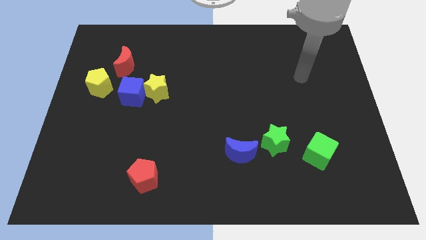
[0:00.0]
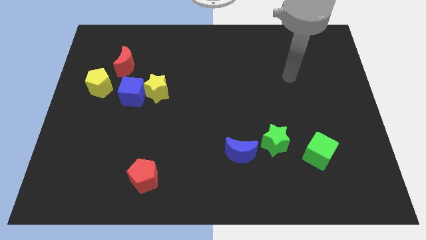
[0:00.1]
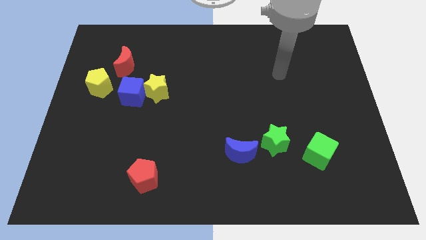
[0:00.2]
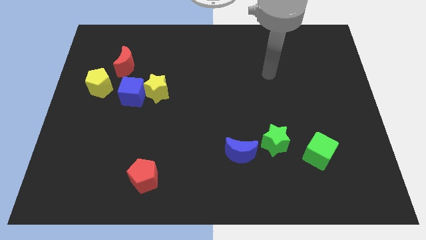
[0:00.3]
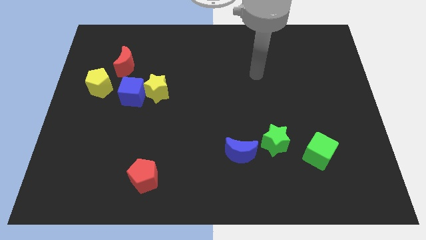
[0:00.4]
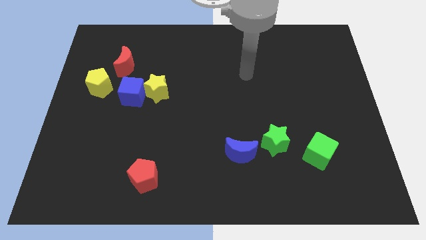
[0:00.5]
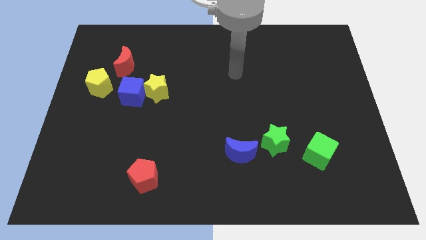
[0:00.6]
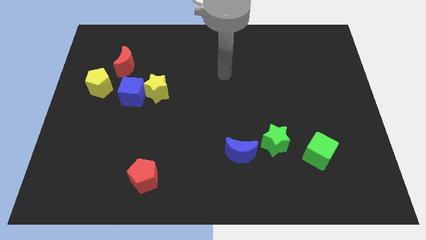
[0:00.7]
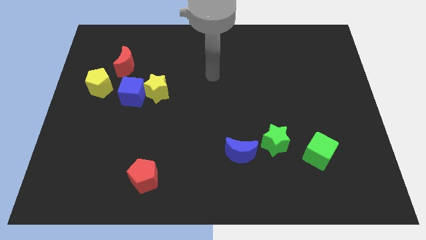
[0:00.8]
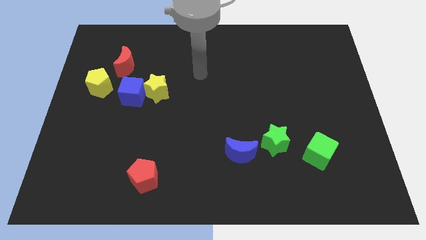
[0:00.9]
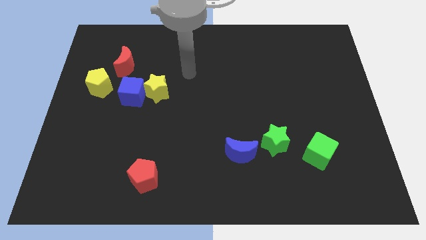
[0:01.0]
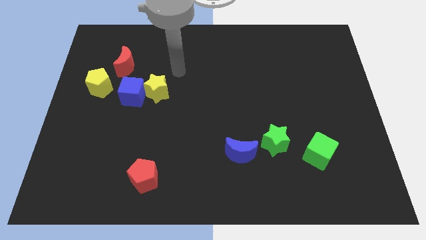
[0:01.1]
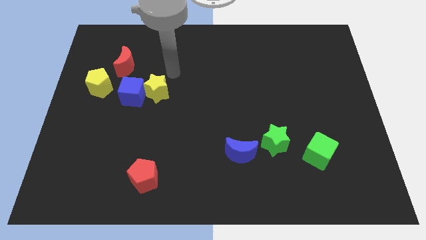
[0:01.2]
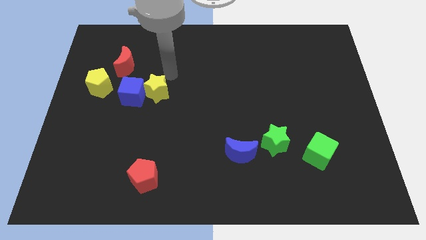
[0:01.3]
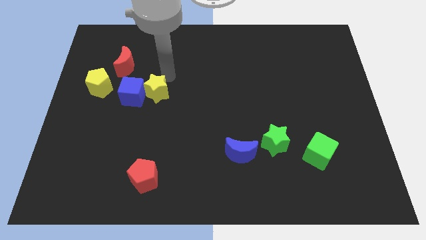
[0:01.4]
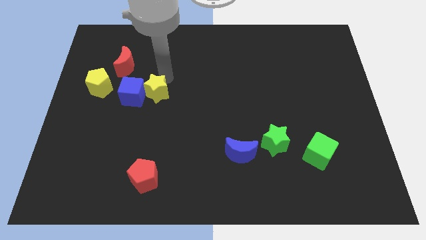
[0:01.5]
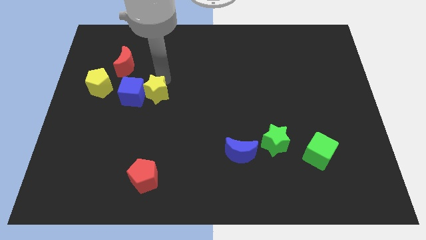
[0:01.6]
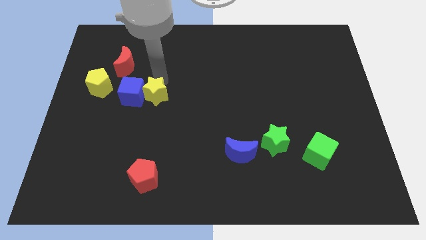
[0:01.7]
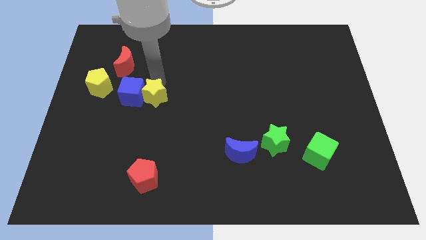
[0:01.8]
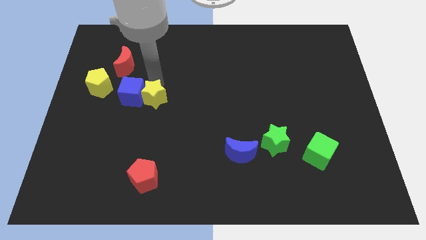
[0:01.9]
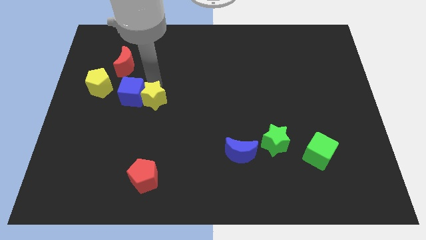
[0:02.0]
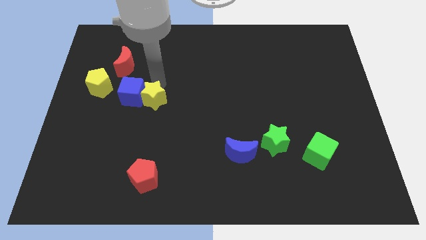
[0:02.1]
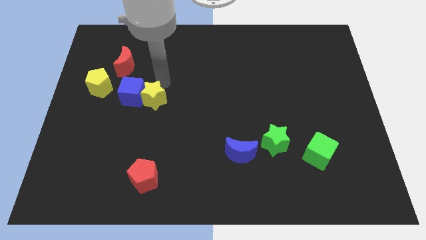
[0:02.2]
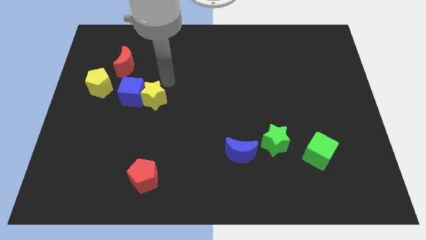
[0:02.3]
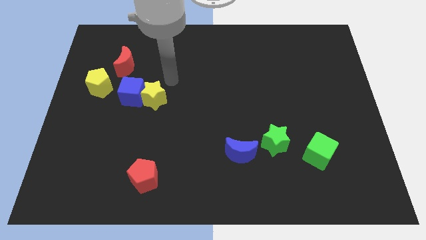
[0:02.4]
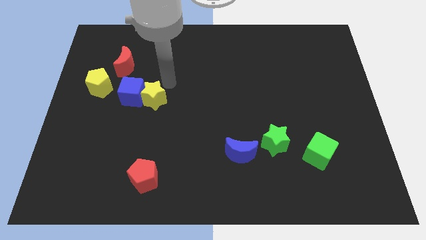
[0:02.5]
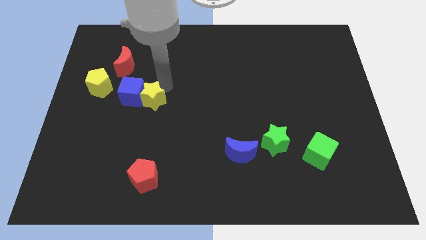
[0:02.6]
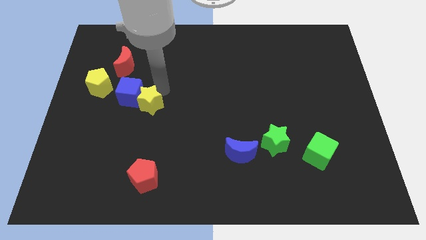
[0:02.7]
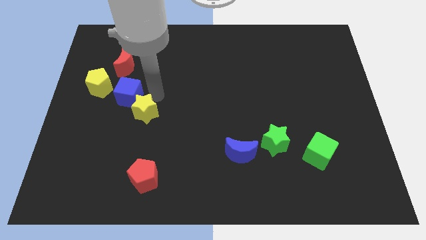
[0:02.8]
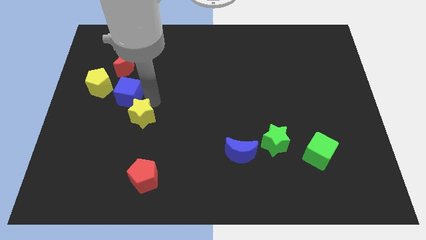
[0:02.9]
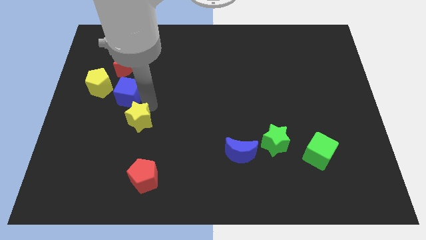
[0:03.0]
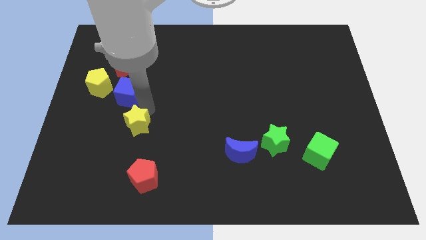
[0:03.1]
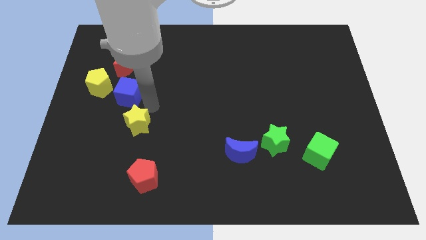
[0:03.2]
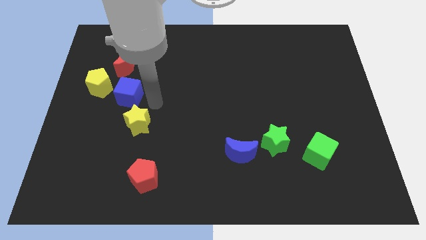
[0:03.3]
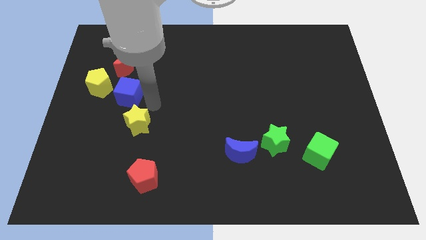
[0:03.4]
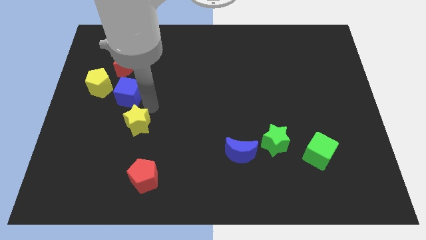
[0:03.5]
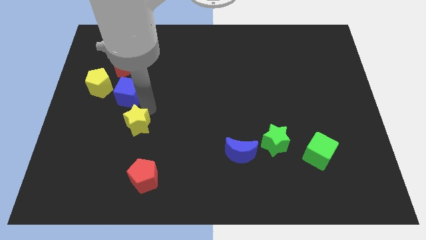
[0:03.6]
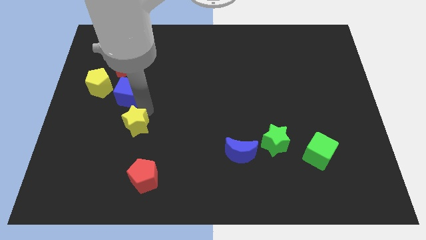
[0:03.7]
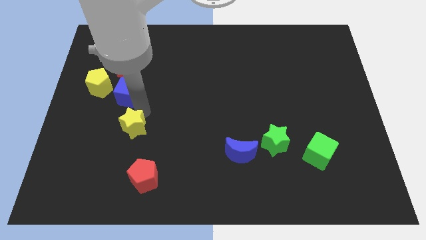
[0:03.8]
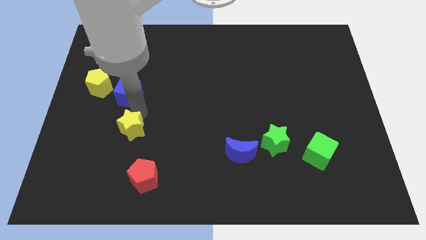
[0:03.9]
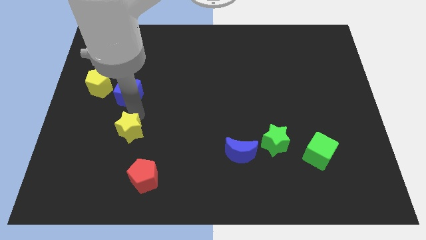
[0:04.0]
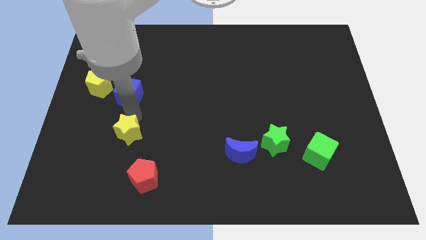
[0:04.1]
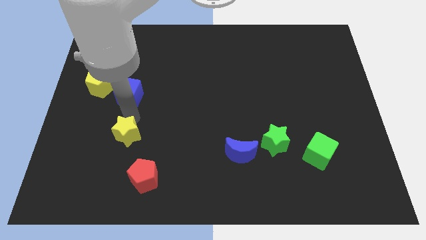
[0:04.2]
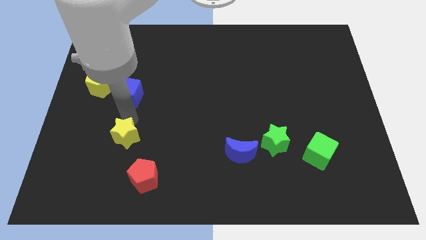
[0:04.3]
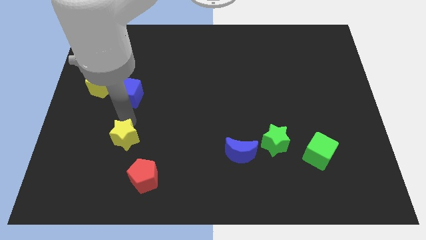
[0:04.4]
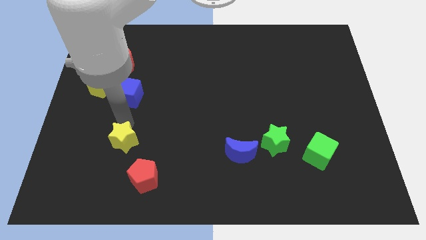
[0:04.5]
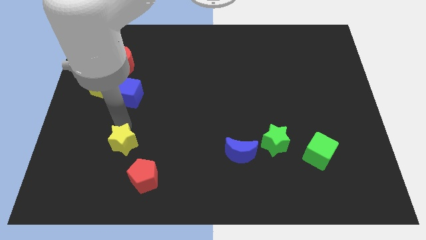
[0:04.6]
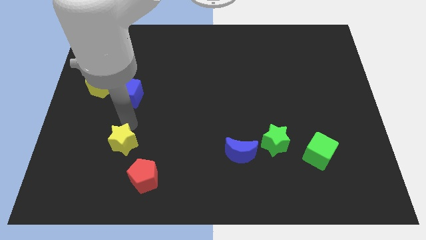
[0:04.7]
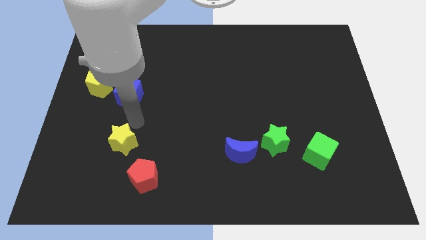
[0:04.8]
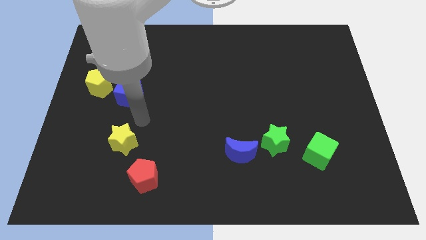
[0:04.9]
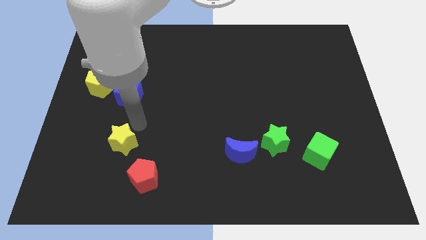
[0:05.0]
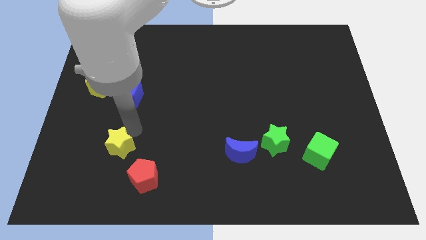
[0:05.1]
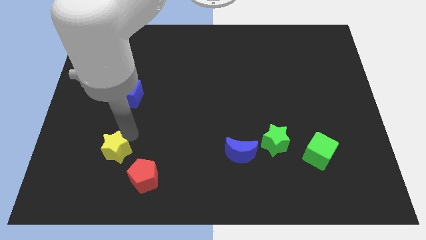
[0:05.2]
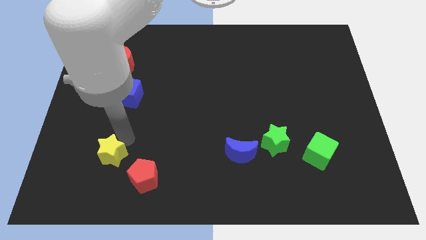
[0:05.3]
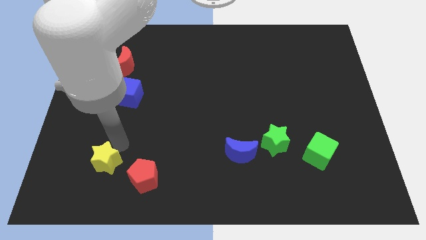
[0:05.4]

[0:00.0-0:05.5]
move the yellow star left of the red pentagon

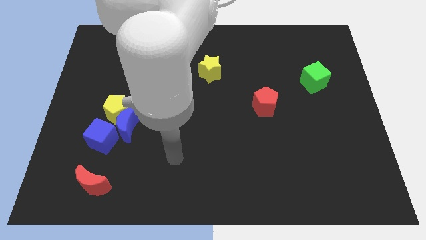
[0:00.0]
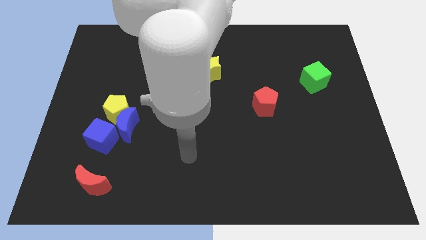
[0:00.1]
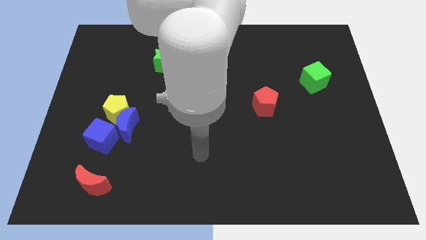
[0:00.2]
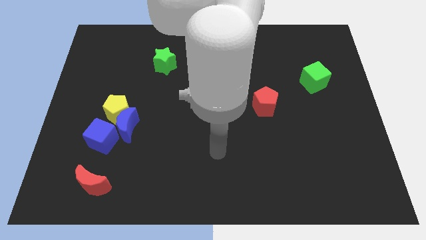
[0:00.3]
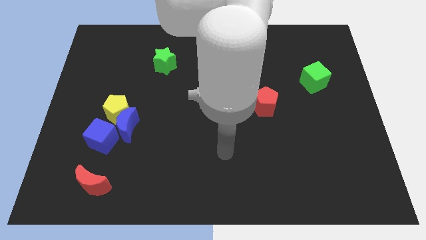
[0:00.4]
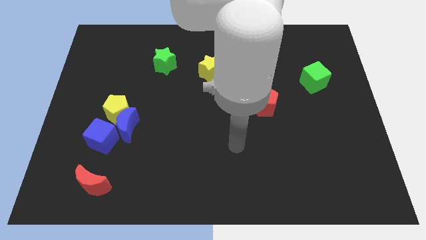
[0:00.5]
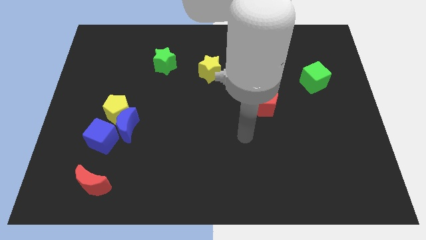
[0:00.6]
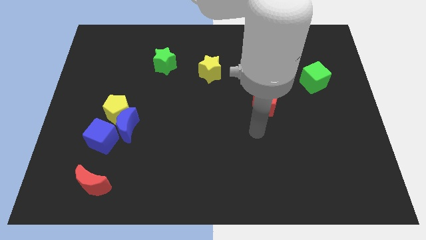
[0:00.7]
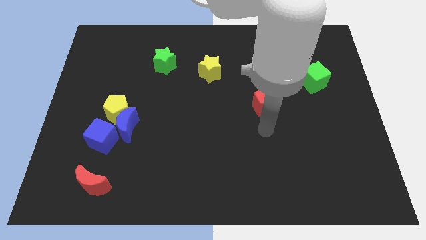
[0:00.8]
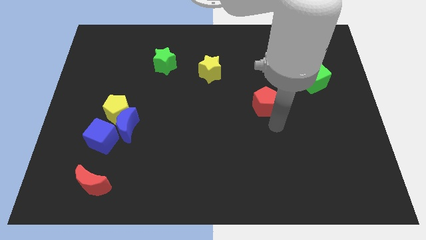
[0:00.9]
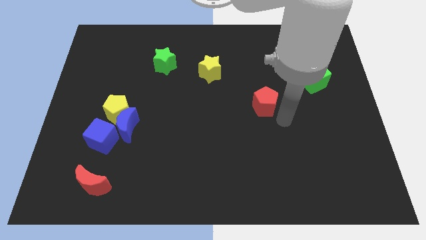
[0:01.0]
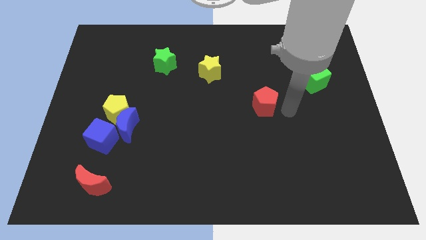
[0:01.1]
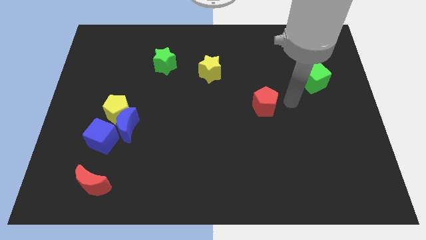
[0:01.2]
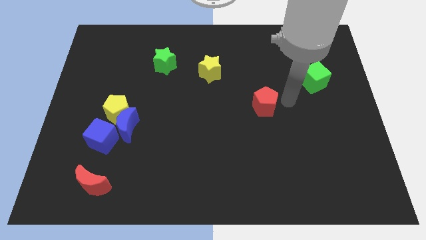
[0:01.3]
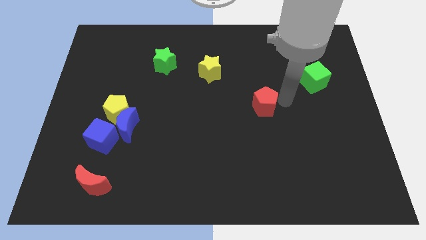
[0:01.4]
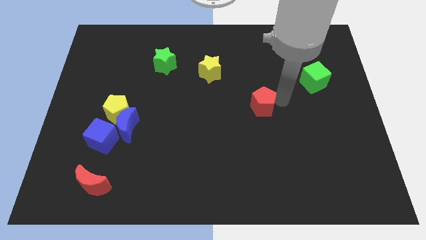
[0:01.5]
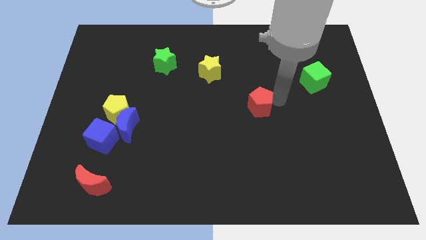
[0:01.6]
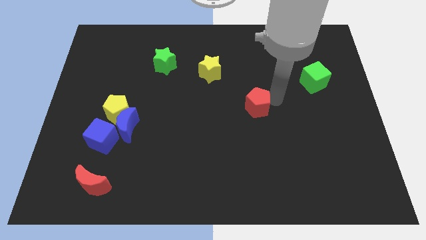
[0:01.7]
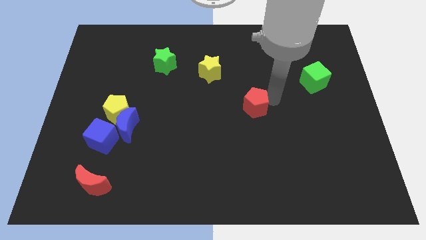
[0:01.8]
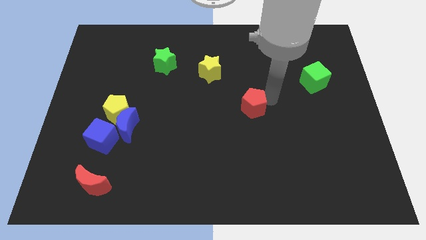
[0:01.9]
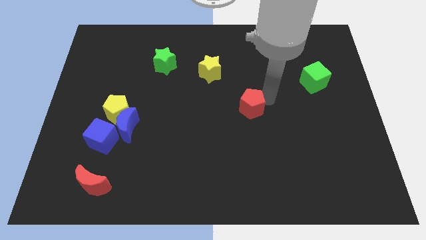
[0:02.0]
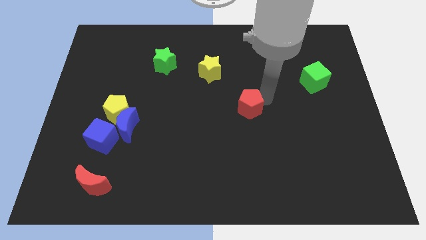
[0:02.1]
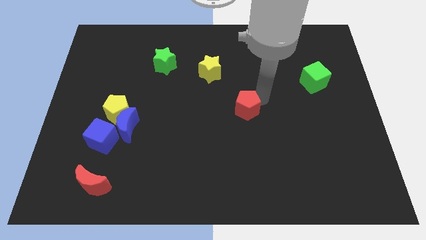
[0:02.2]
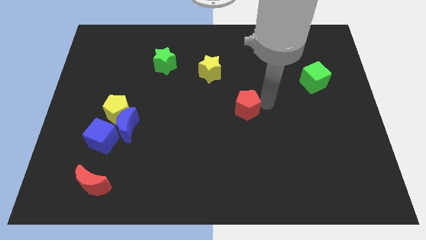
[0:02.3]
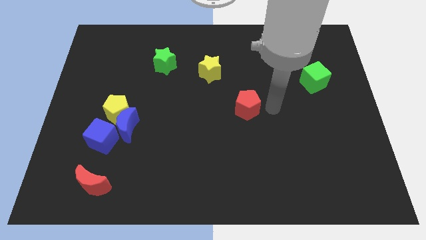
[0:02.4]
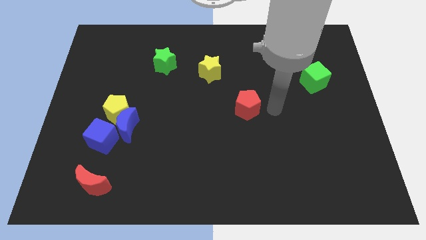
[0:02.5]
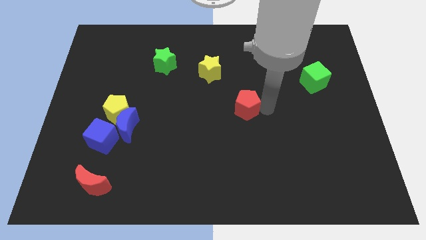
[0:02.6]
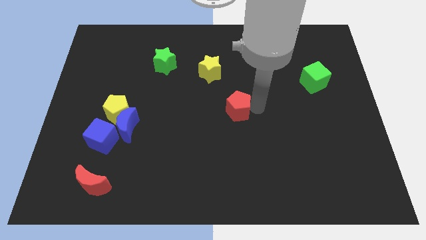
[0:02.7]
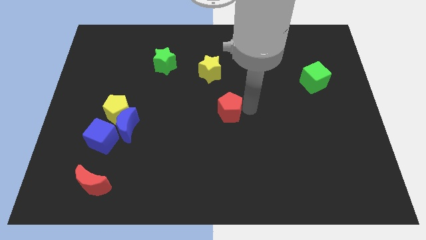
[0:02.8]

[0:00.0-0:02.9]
slide the red pentagon to the bottom side of the yellow star
